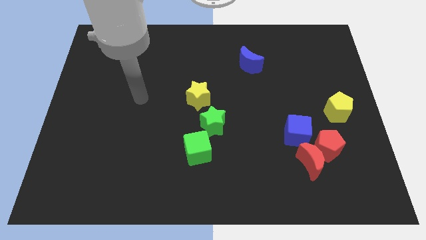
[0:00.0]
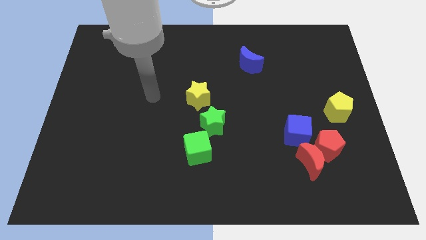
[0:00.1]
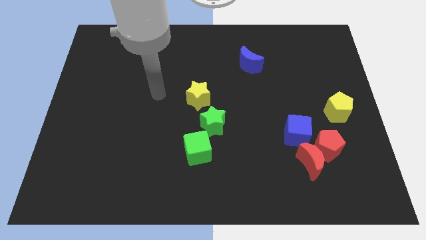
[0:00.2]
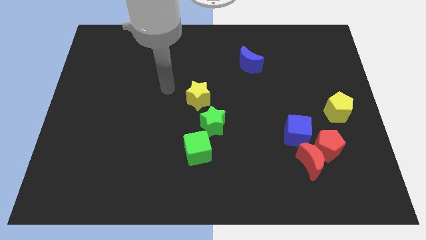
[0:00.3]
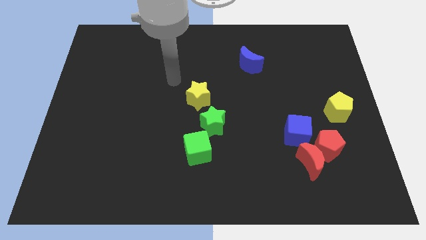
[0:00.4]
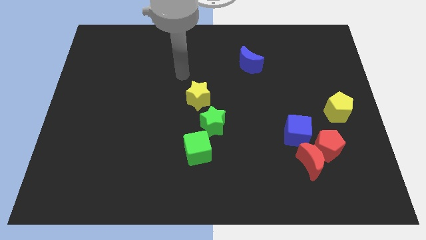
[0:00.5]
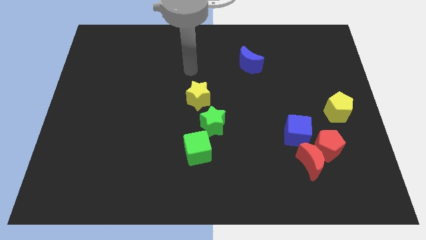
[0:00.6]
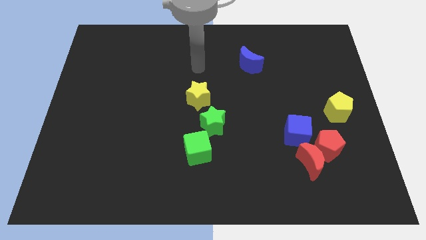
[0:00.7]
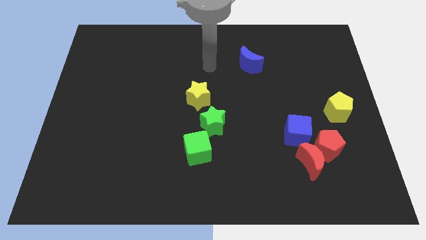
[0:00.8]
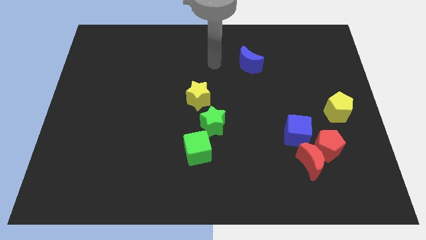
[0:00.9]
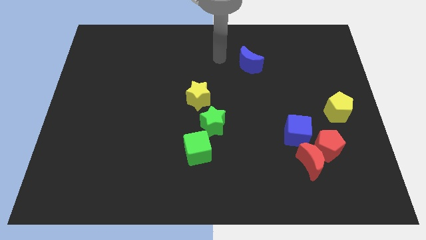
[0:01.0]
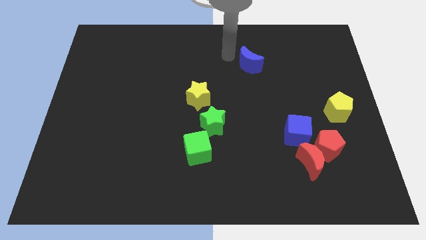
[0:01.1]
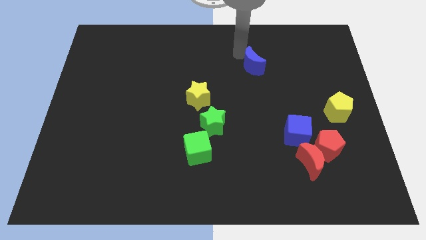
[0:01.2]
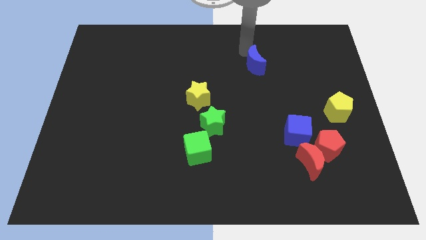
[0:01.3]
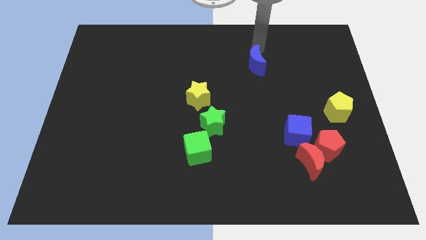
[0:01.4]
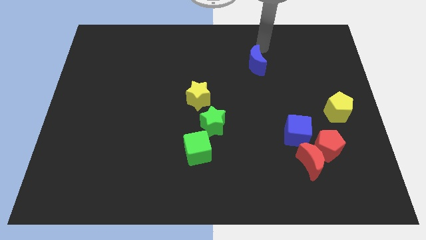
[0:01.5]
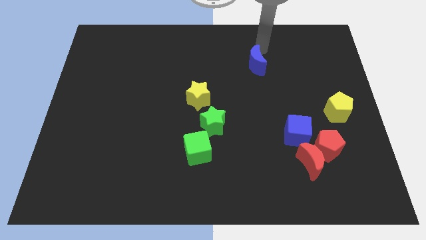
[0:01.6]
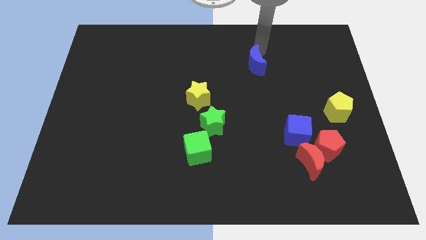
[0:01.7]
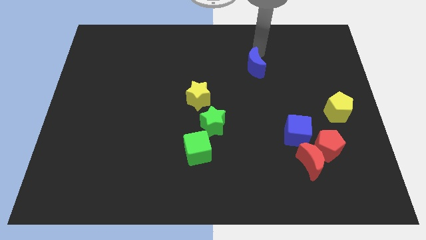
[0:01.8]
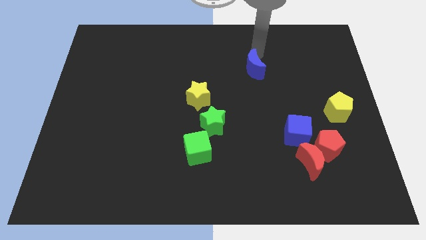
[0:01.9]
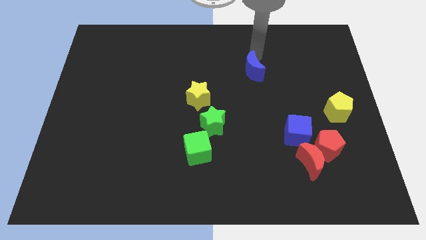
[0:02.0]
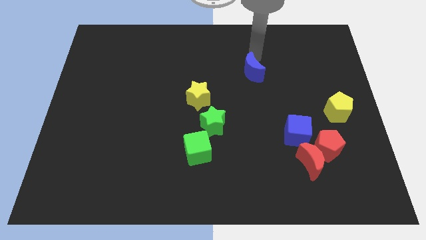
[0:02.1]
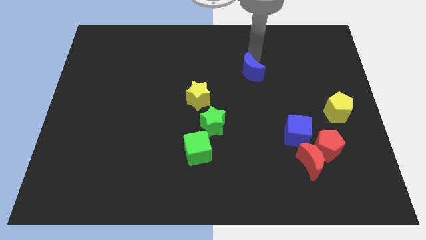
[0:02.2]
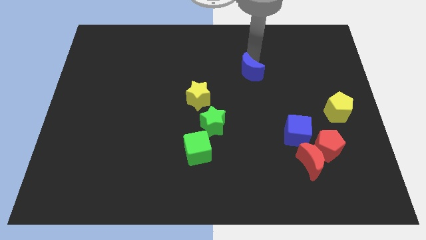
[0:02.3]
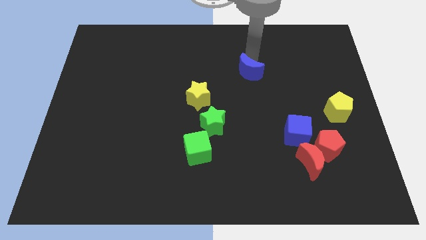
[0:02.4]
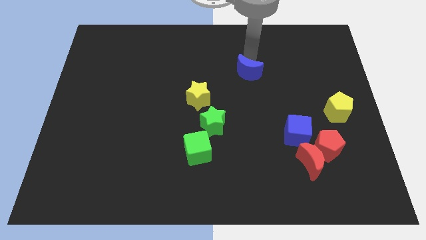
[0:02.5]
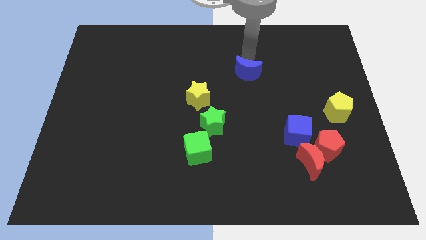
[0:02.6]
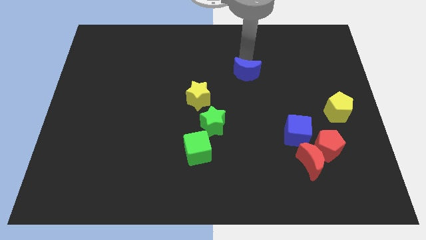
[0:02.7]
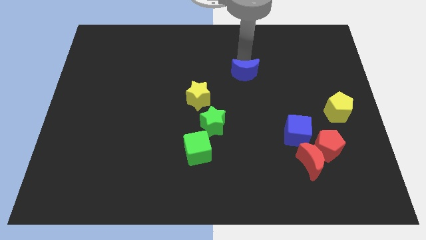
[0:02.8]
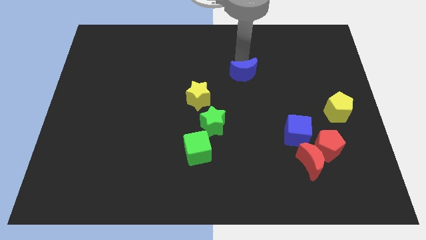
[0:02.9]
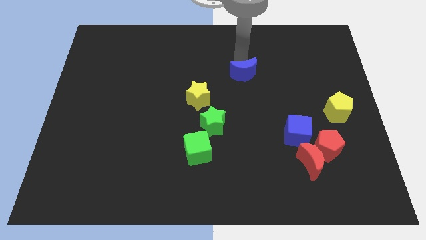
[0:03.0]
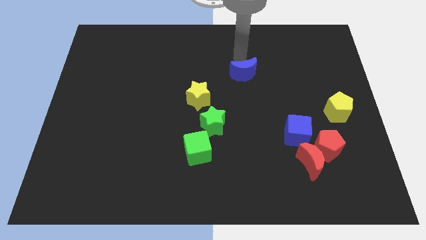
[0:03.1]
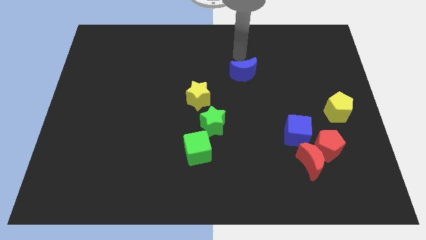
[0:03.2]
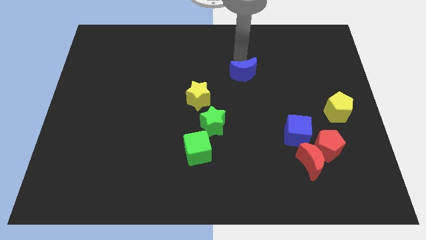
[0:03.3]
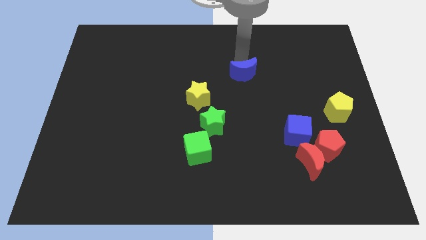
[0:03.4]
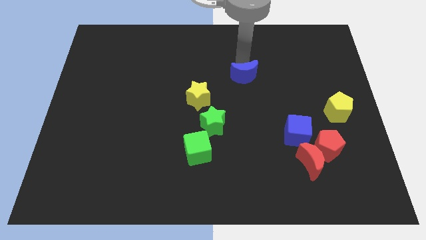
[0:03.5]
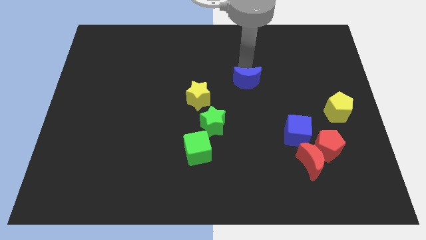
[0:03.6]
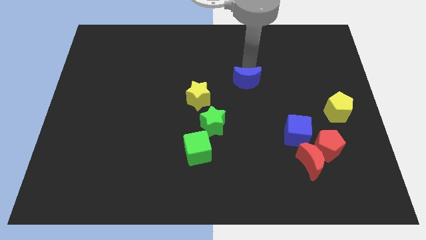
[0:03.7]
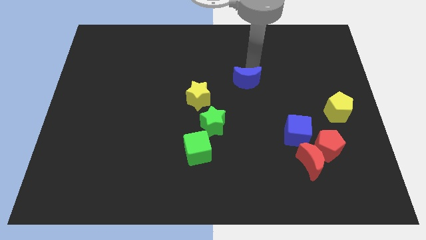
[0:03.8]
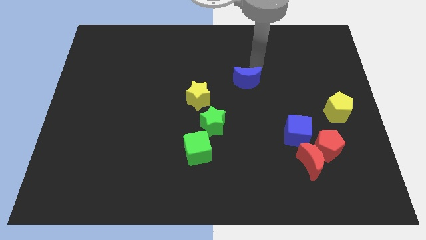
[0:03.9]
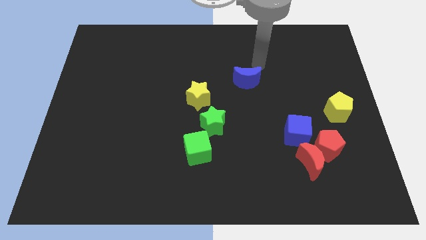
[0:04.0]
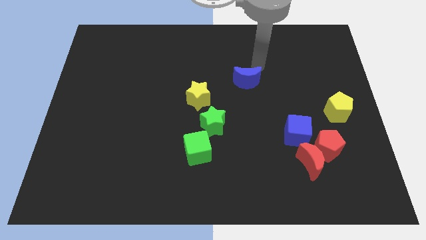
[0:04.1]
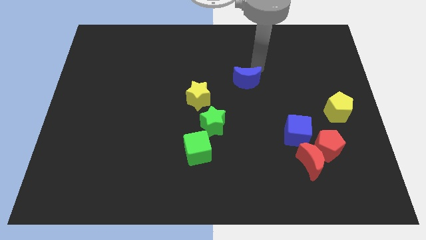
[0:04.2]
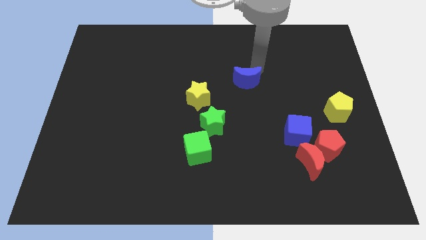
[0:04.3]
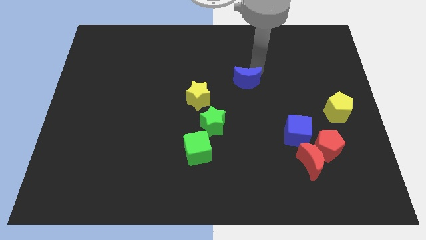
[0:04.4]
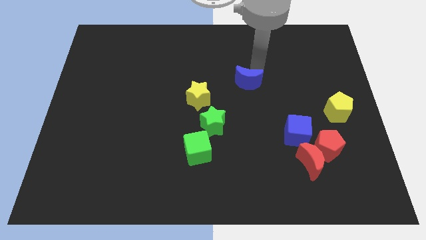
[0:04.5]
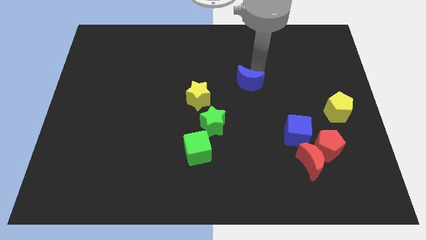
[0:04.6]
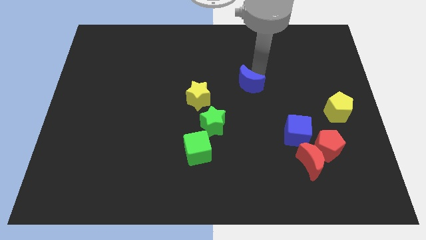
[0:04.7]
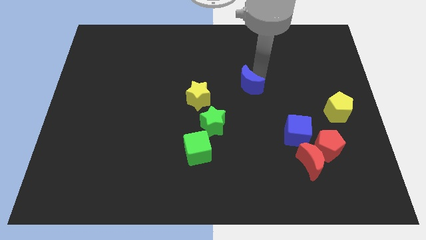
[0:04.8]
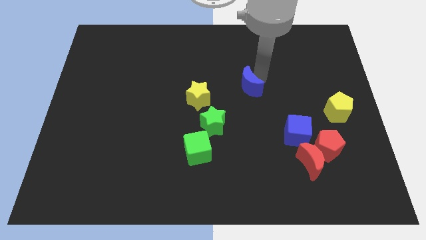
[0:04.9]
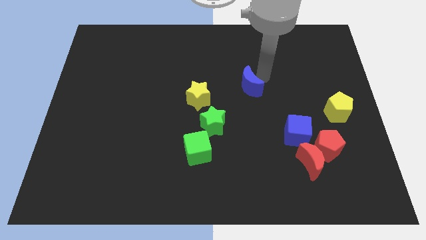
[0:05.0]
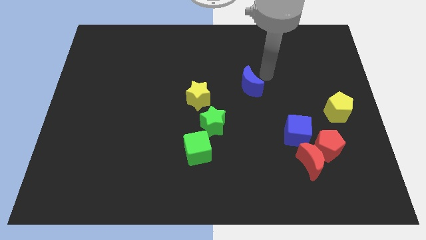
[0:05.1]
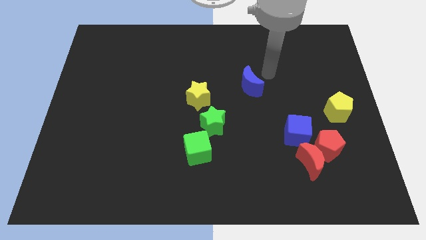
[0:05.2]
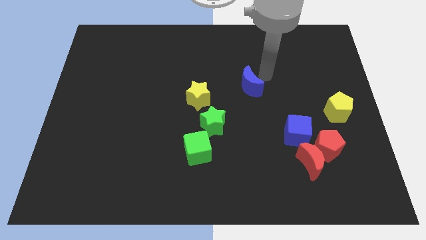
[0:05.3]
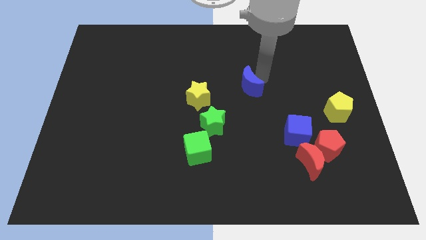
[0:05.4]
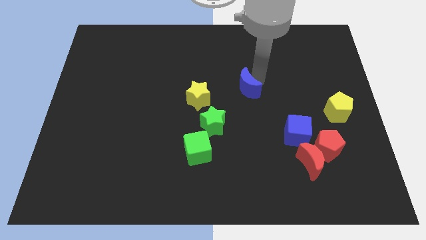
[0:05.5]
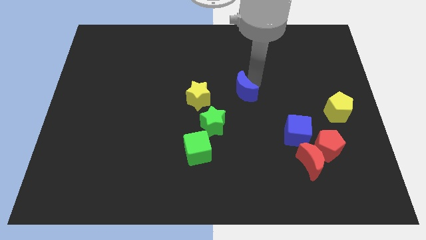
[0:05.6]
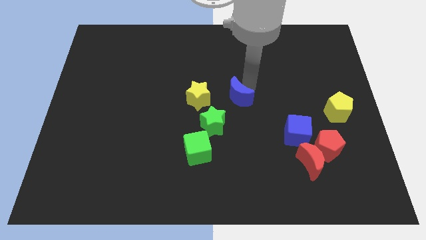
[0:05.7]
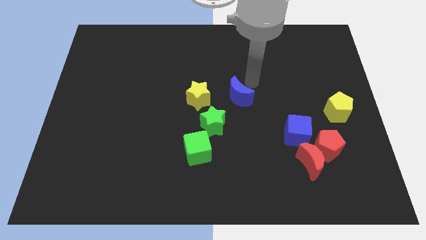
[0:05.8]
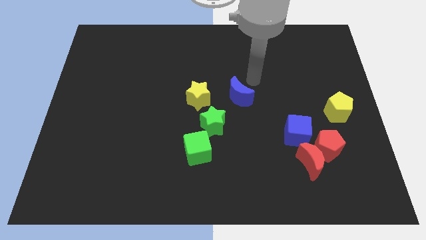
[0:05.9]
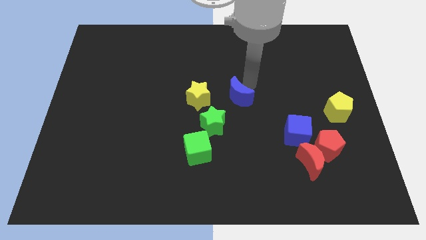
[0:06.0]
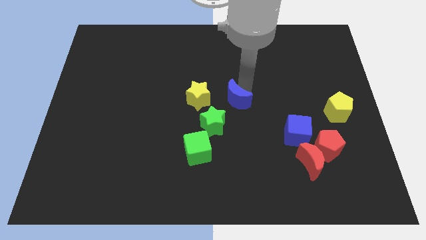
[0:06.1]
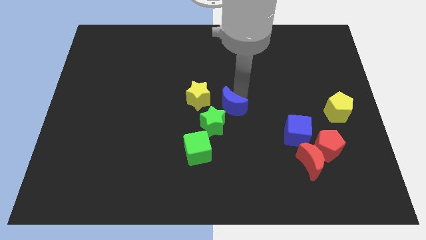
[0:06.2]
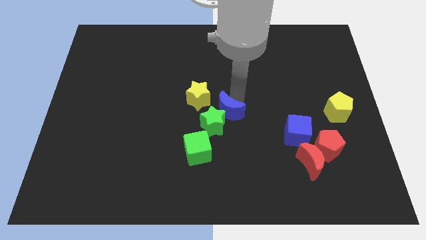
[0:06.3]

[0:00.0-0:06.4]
push the blue moon next to the green star
